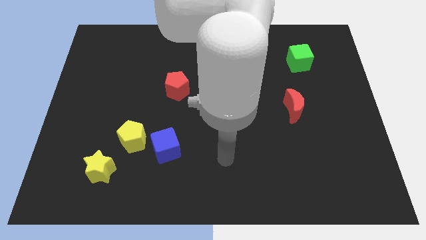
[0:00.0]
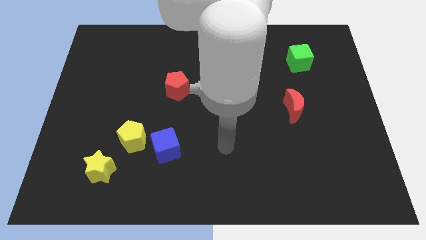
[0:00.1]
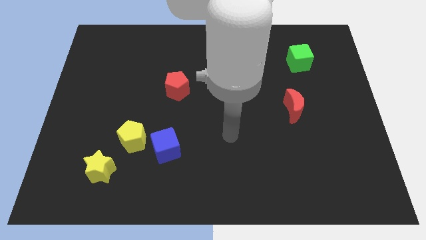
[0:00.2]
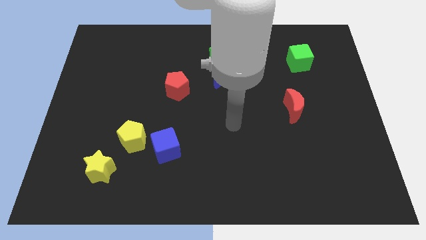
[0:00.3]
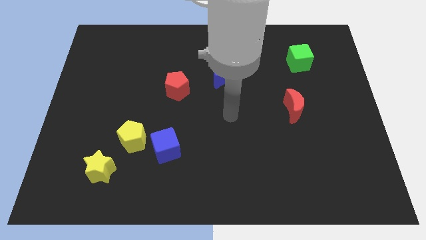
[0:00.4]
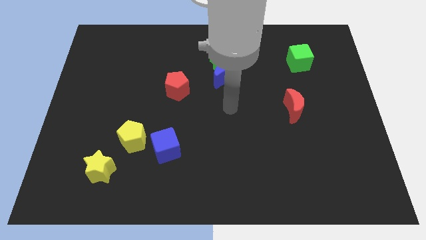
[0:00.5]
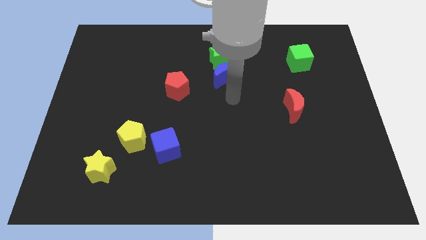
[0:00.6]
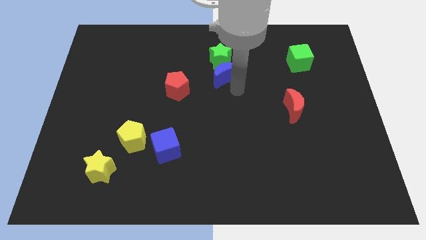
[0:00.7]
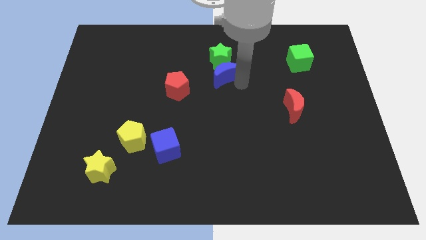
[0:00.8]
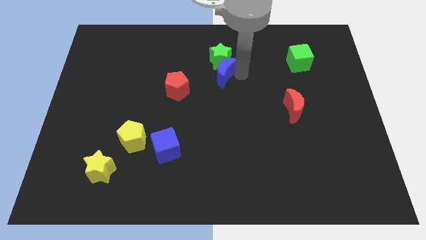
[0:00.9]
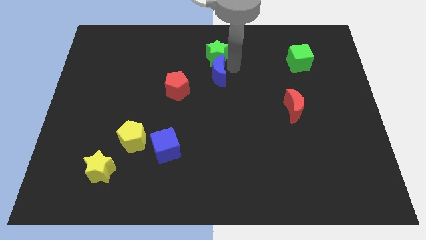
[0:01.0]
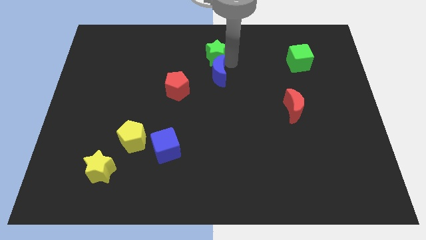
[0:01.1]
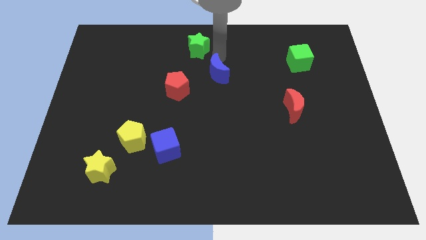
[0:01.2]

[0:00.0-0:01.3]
move the blue moon away from the green star

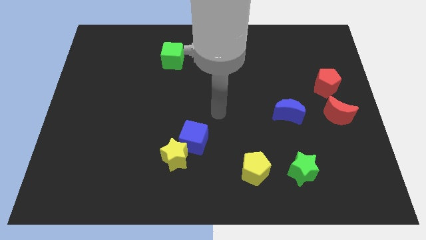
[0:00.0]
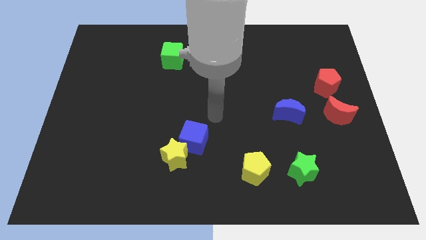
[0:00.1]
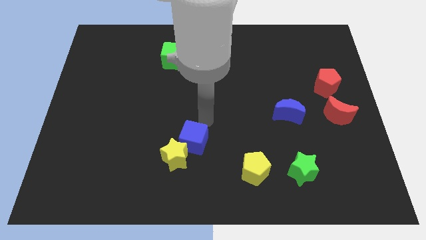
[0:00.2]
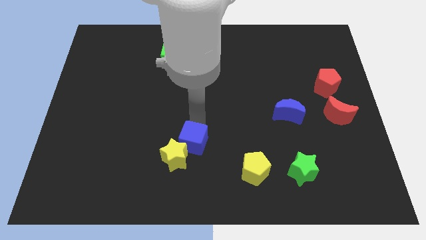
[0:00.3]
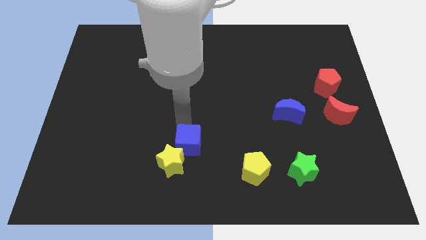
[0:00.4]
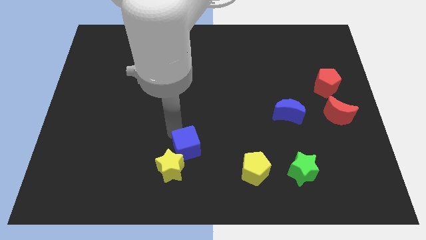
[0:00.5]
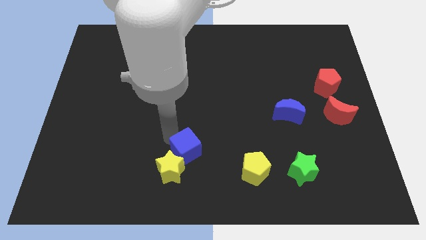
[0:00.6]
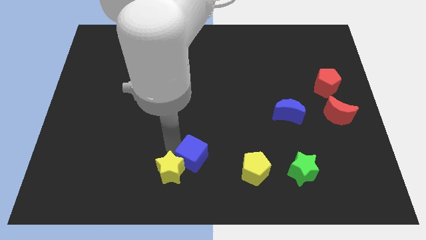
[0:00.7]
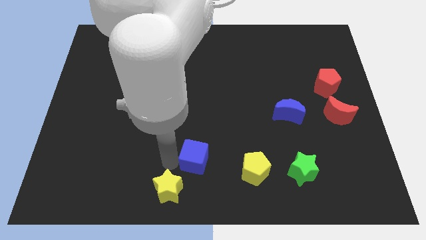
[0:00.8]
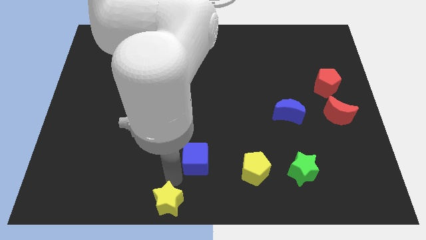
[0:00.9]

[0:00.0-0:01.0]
separate the blue cube from the yellow star

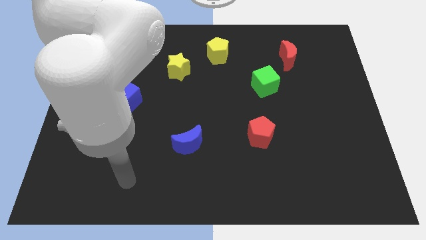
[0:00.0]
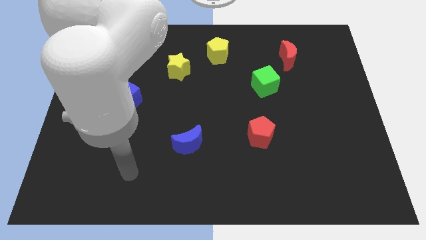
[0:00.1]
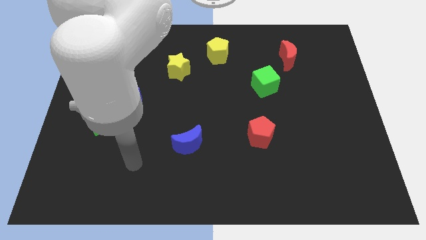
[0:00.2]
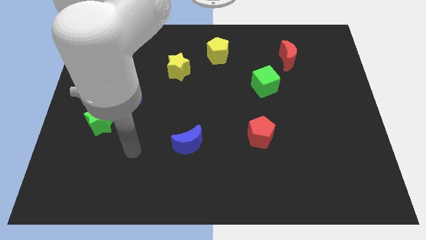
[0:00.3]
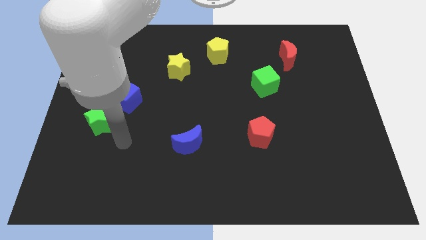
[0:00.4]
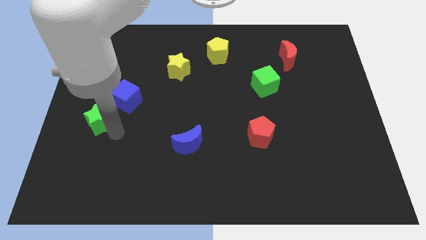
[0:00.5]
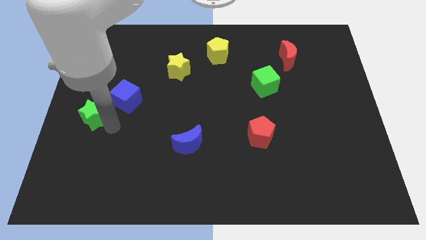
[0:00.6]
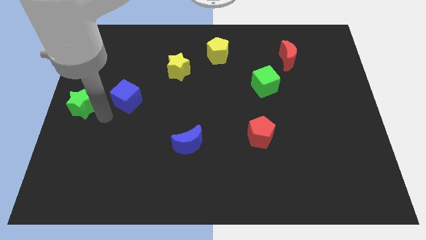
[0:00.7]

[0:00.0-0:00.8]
separate the blue cube from the green star

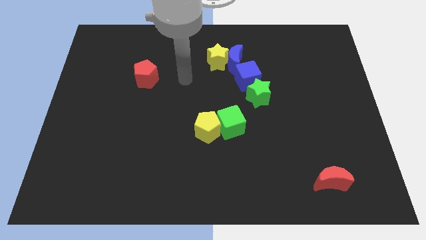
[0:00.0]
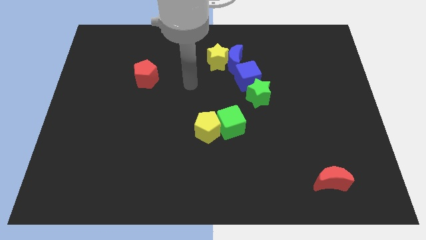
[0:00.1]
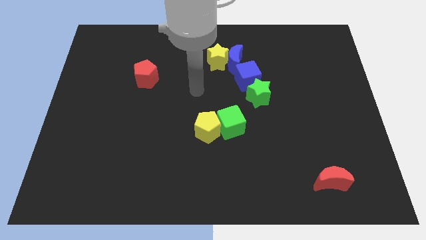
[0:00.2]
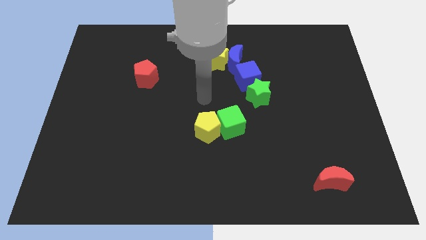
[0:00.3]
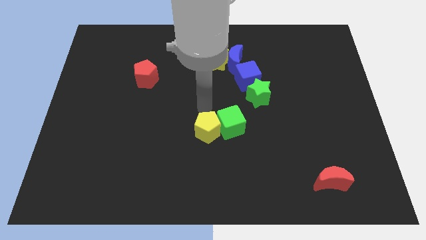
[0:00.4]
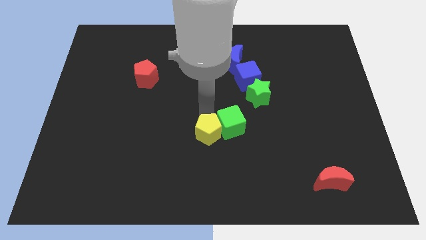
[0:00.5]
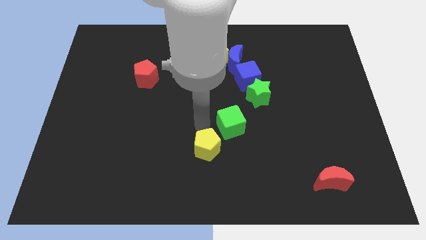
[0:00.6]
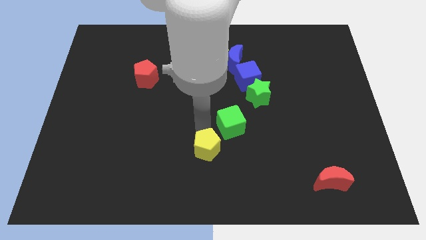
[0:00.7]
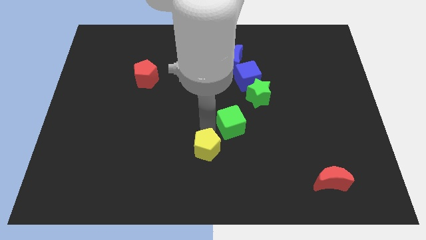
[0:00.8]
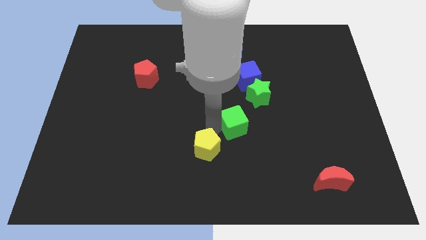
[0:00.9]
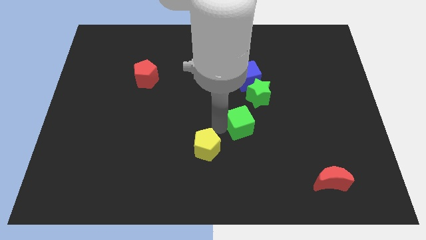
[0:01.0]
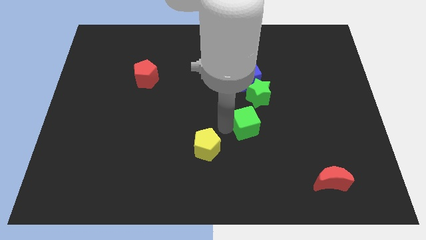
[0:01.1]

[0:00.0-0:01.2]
move the green cube away from the yellow pentagon

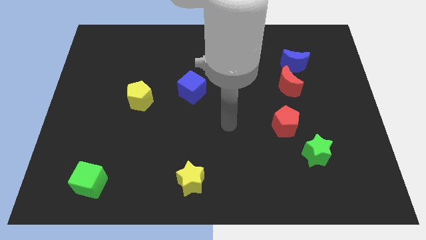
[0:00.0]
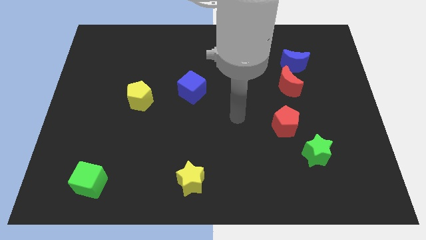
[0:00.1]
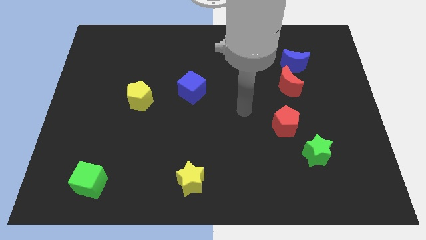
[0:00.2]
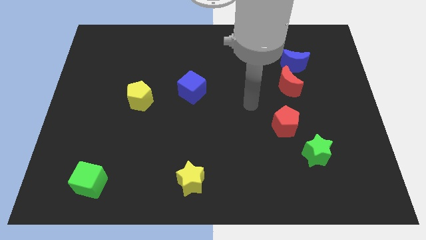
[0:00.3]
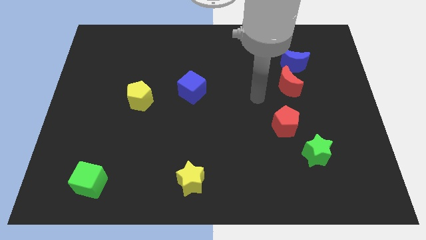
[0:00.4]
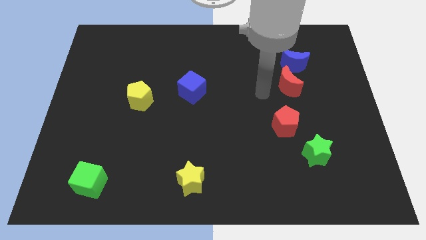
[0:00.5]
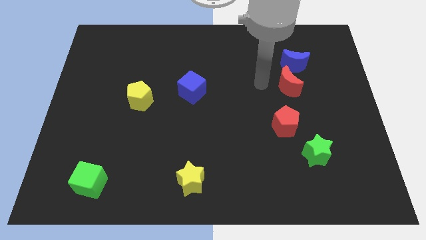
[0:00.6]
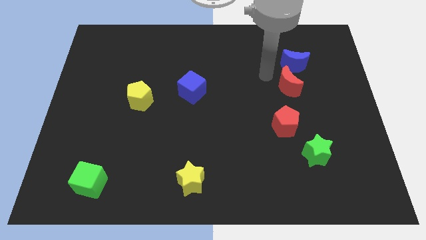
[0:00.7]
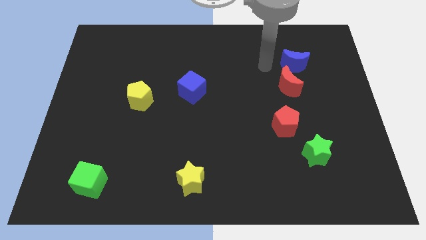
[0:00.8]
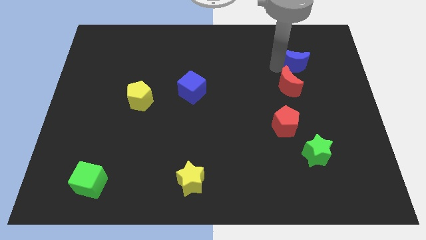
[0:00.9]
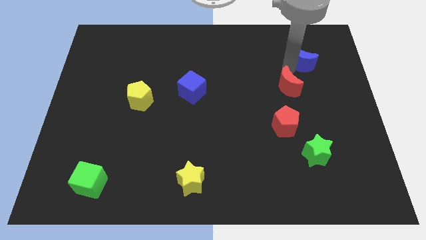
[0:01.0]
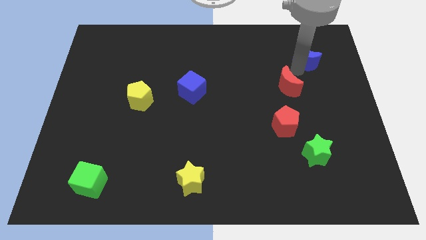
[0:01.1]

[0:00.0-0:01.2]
pull the red moon apart from the blue moon

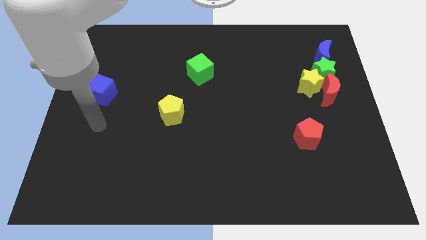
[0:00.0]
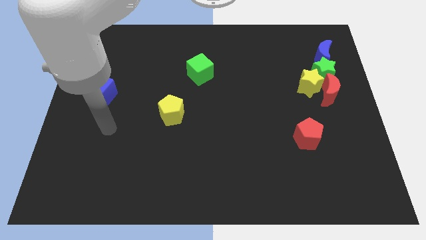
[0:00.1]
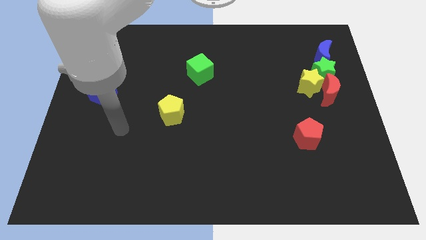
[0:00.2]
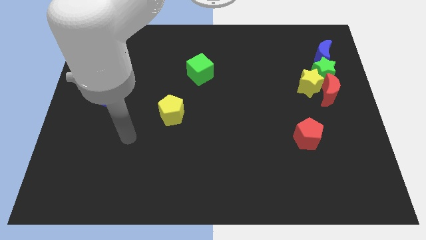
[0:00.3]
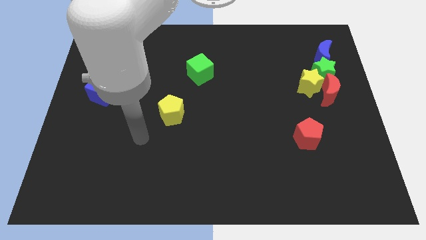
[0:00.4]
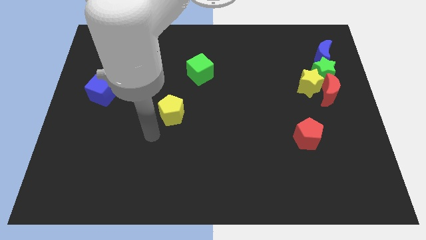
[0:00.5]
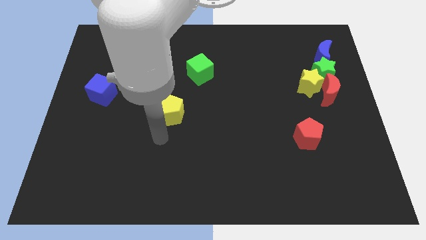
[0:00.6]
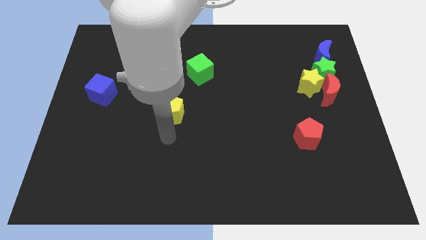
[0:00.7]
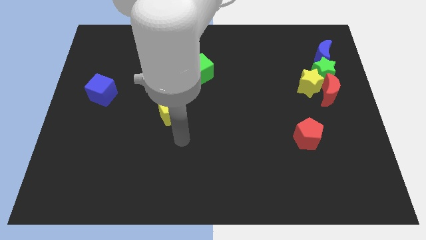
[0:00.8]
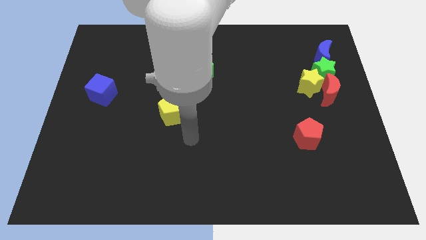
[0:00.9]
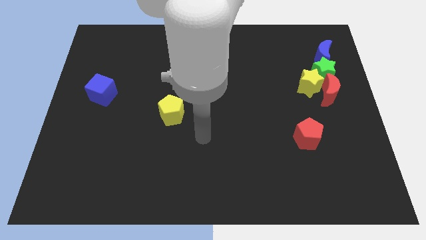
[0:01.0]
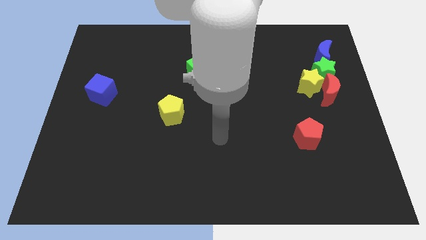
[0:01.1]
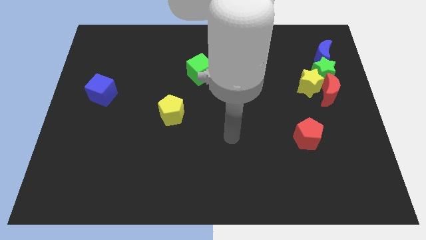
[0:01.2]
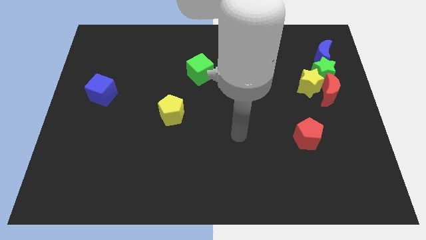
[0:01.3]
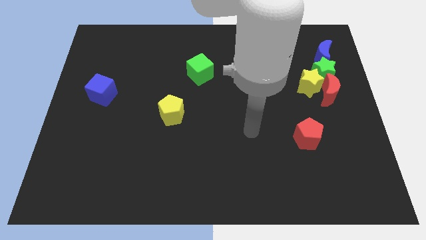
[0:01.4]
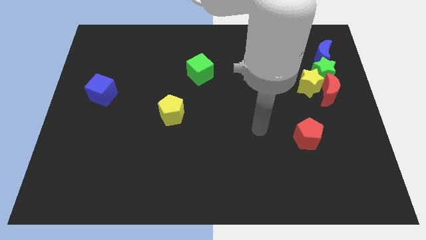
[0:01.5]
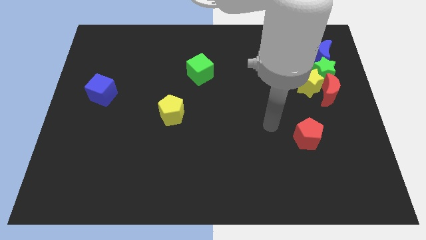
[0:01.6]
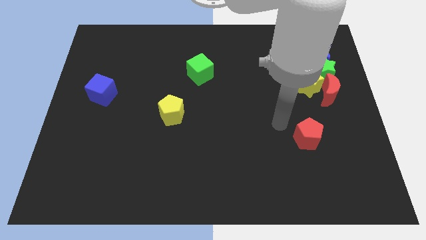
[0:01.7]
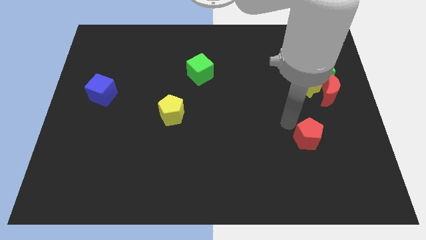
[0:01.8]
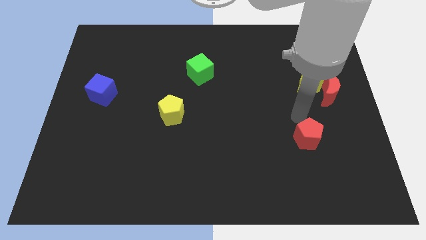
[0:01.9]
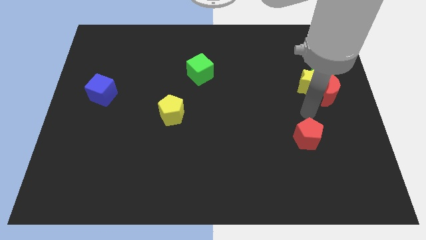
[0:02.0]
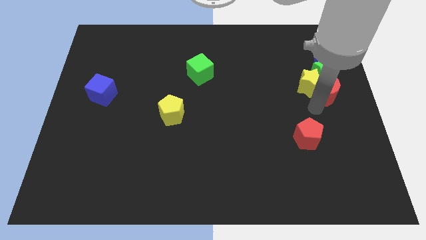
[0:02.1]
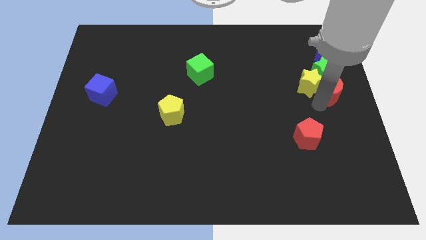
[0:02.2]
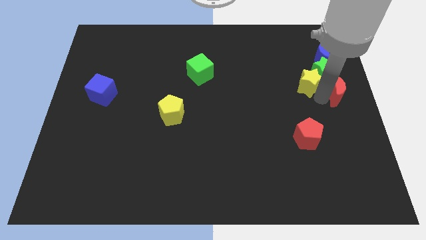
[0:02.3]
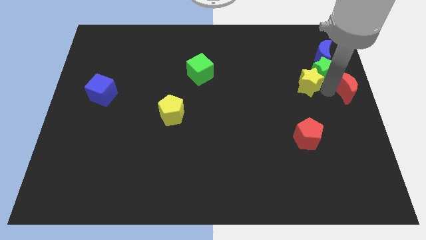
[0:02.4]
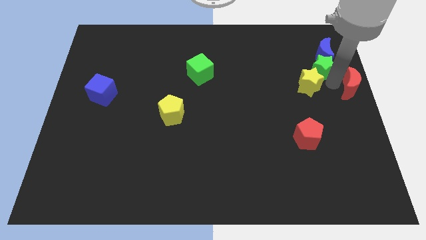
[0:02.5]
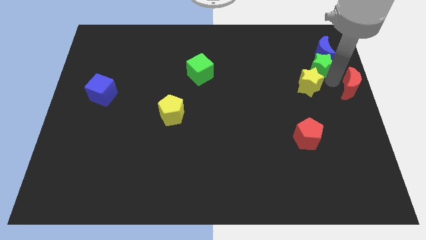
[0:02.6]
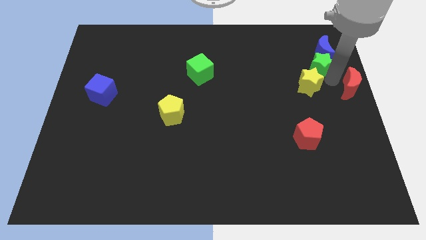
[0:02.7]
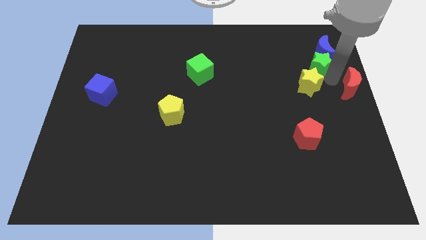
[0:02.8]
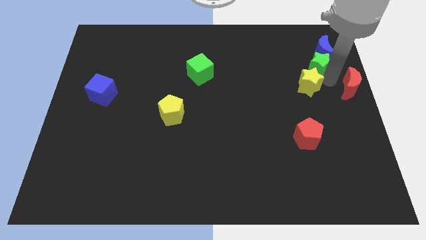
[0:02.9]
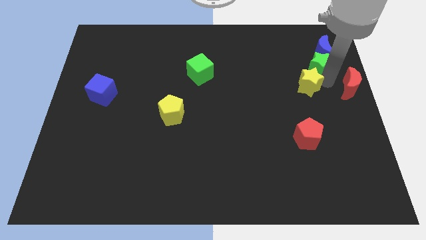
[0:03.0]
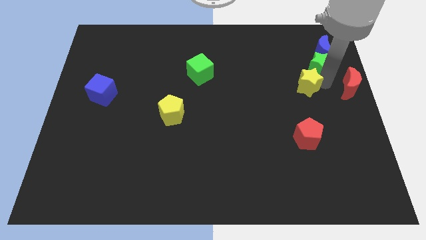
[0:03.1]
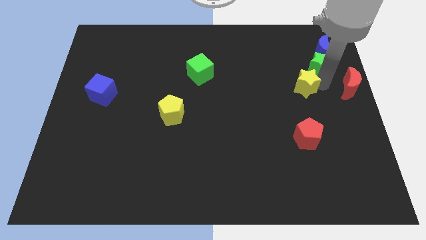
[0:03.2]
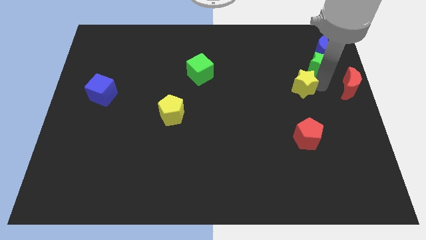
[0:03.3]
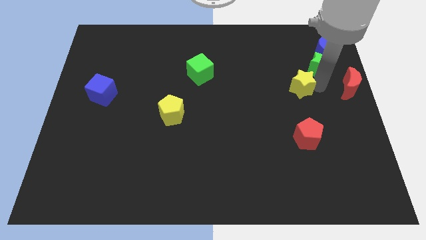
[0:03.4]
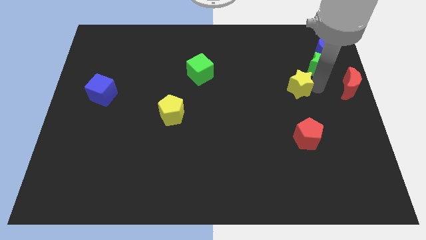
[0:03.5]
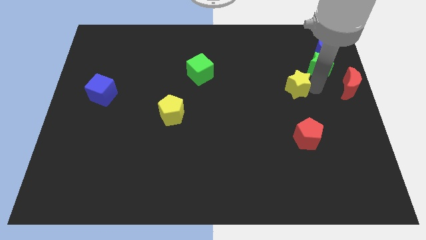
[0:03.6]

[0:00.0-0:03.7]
pull the yellow star apart from the green star and red moon
